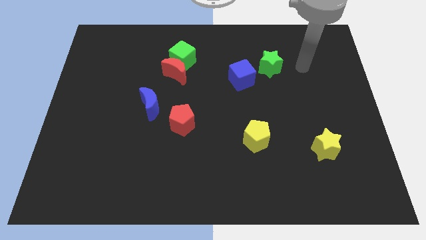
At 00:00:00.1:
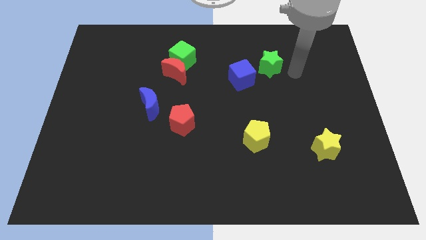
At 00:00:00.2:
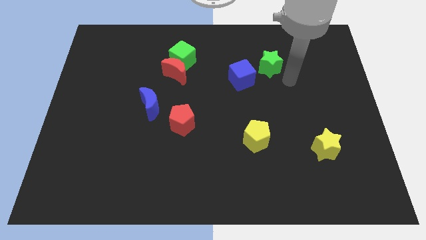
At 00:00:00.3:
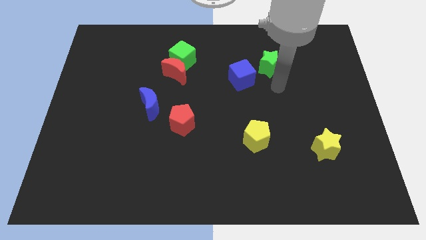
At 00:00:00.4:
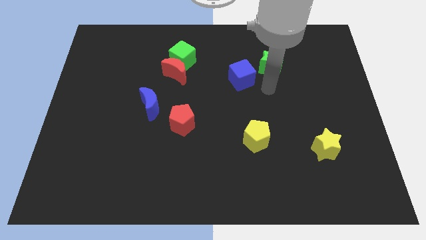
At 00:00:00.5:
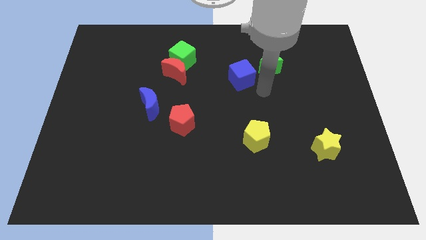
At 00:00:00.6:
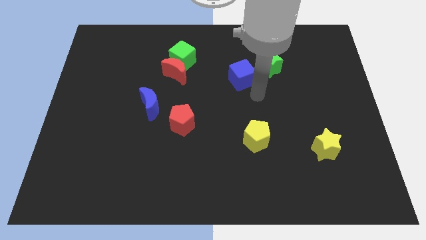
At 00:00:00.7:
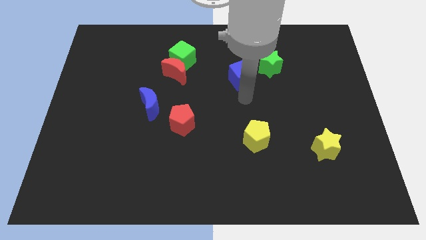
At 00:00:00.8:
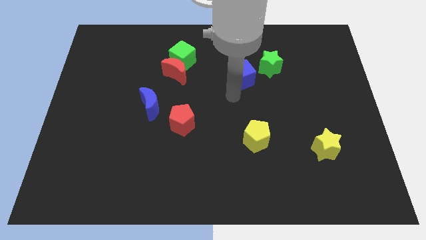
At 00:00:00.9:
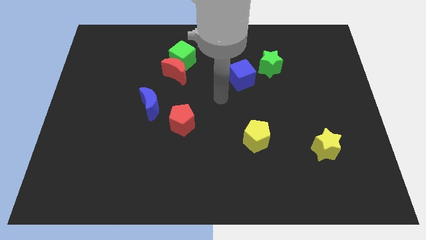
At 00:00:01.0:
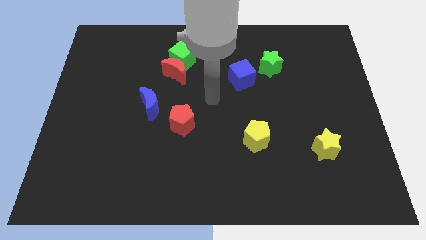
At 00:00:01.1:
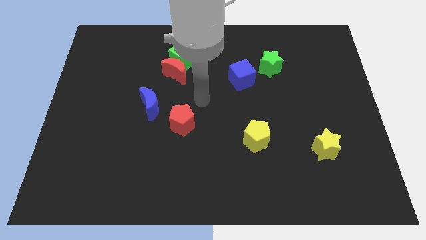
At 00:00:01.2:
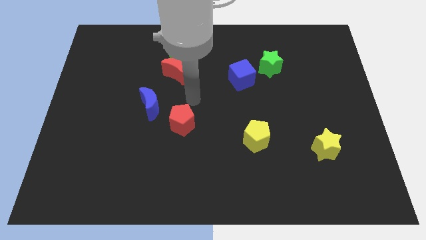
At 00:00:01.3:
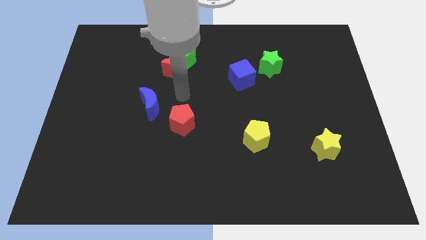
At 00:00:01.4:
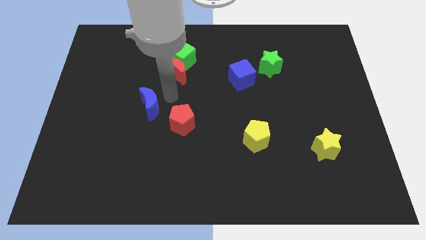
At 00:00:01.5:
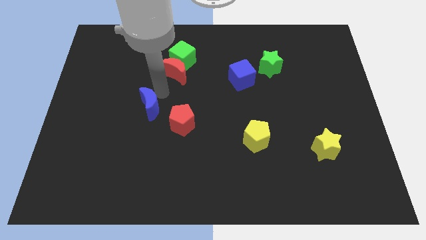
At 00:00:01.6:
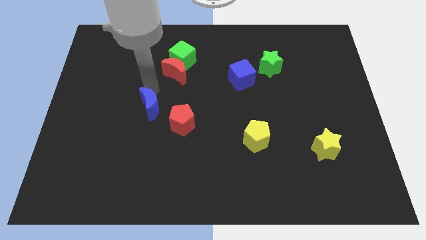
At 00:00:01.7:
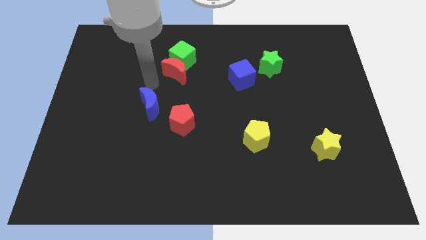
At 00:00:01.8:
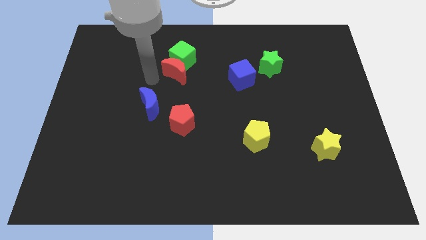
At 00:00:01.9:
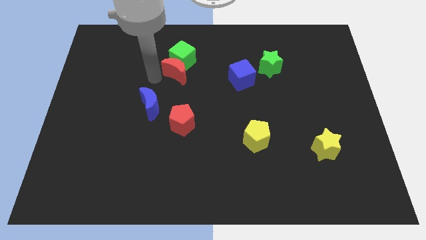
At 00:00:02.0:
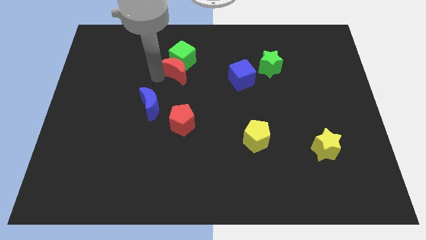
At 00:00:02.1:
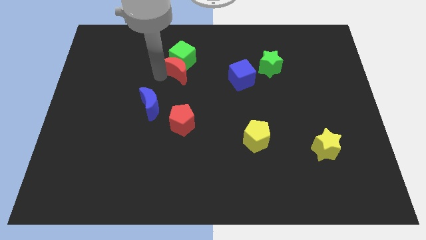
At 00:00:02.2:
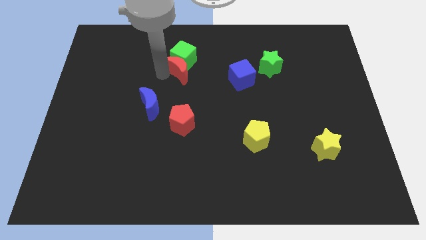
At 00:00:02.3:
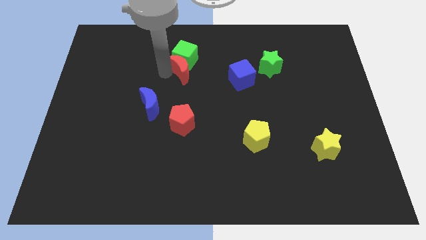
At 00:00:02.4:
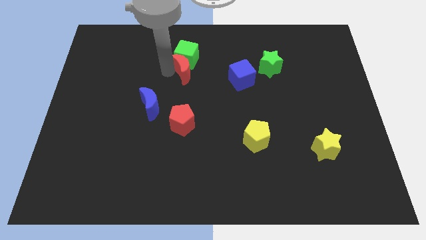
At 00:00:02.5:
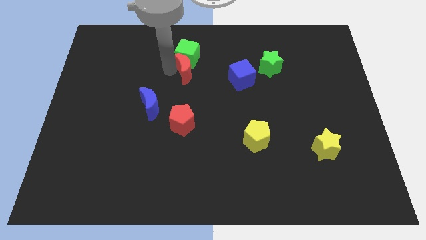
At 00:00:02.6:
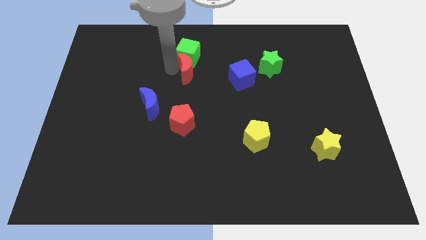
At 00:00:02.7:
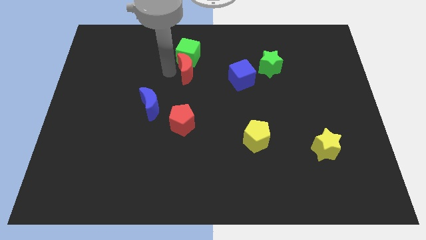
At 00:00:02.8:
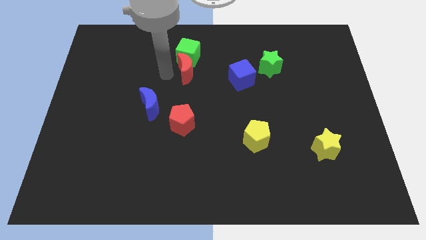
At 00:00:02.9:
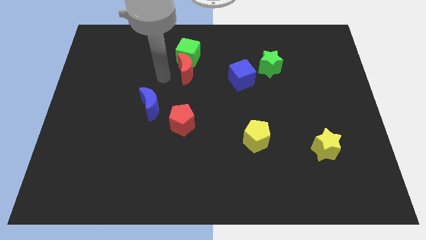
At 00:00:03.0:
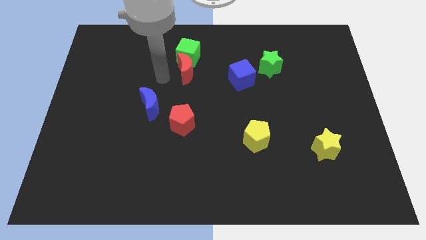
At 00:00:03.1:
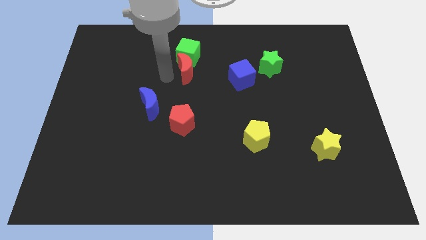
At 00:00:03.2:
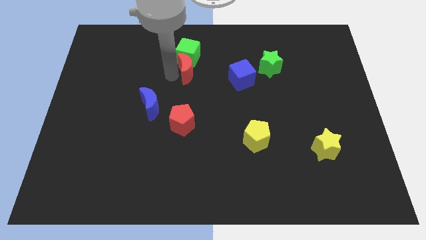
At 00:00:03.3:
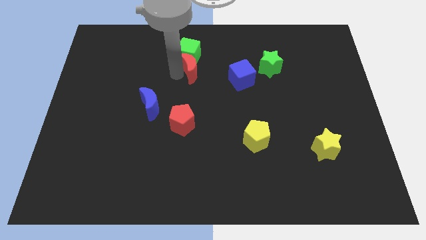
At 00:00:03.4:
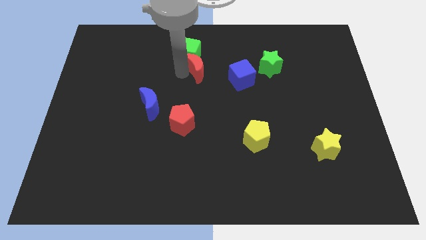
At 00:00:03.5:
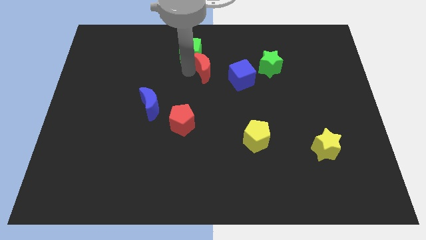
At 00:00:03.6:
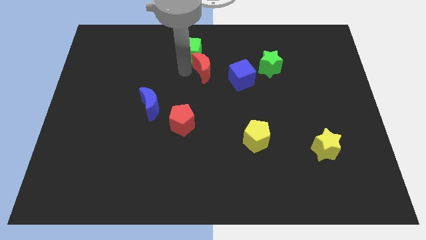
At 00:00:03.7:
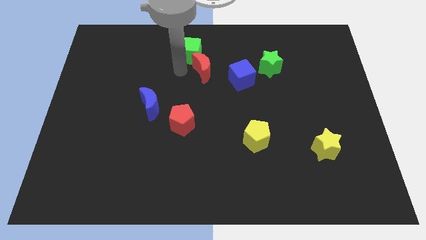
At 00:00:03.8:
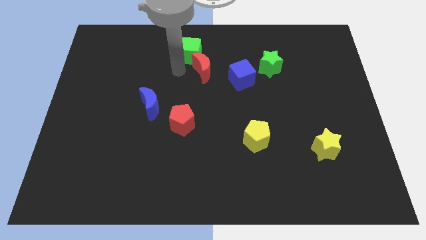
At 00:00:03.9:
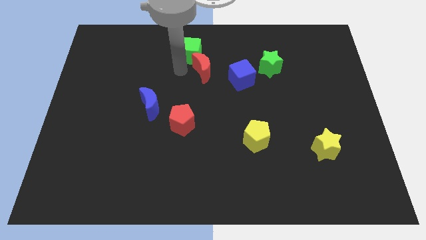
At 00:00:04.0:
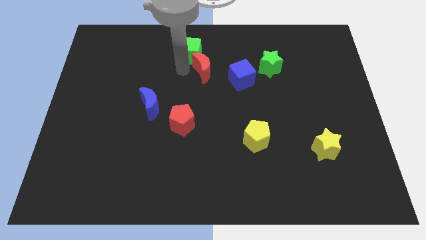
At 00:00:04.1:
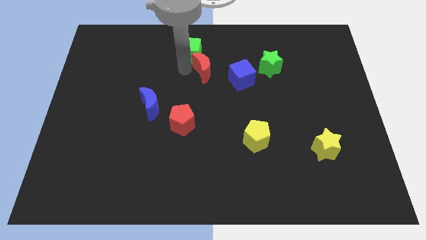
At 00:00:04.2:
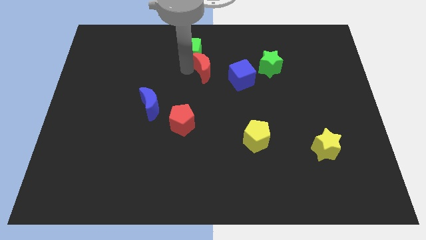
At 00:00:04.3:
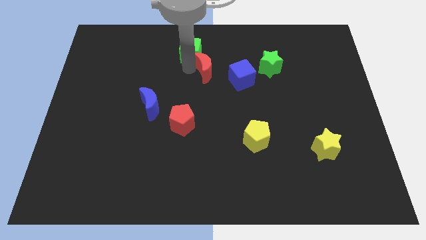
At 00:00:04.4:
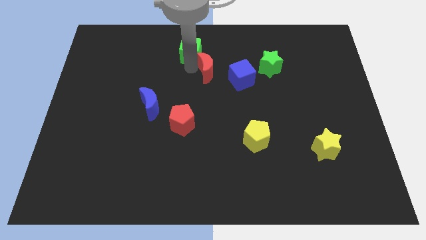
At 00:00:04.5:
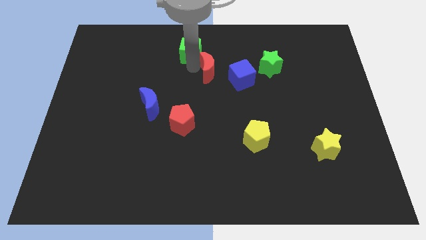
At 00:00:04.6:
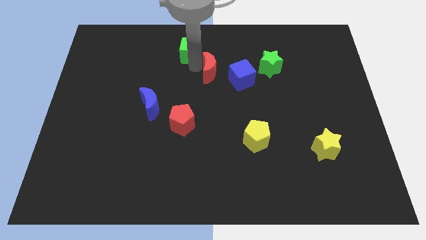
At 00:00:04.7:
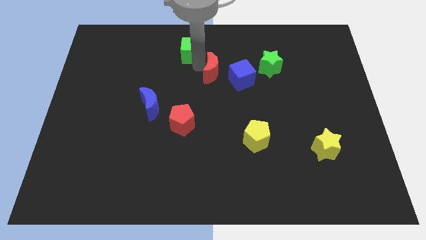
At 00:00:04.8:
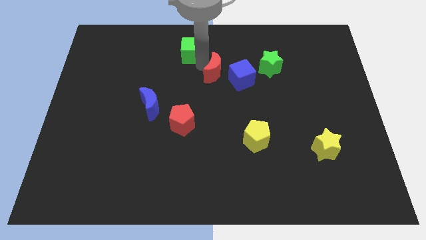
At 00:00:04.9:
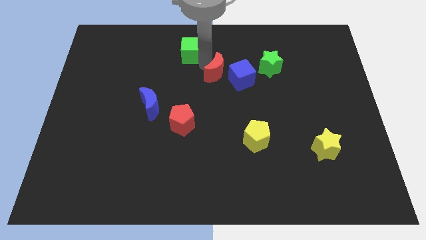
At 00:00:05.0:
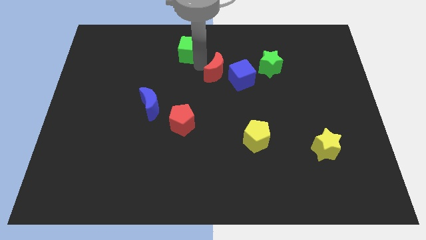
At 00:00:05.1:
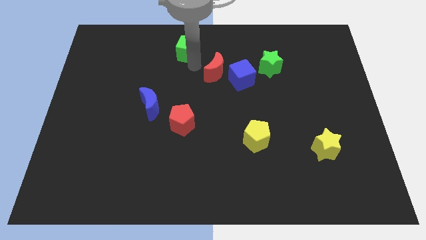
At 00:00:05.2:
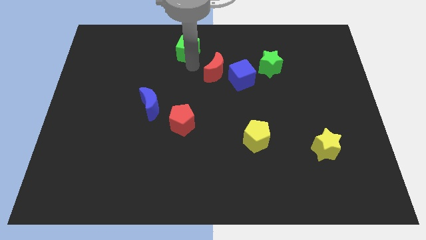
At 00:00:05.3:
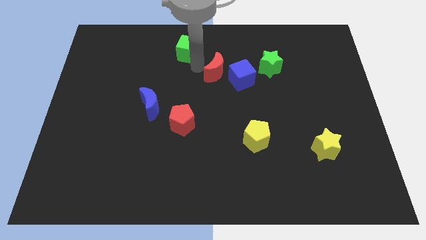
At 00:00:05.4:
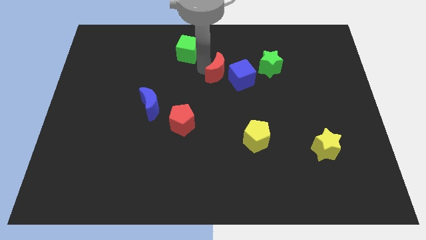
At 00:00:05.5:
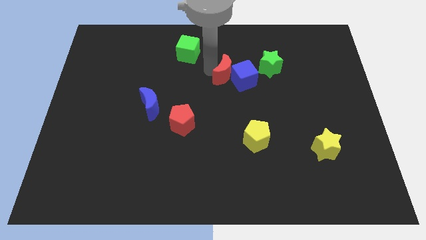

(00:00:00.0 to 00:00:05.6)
slide the red moon towards the blue cube
